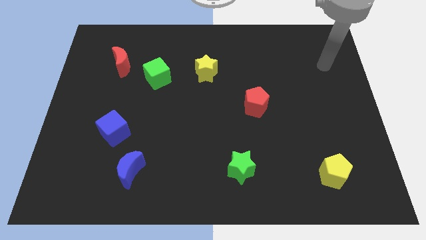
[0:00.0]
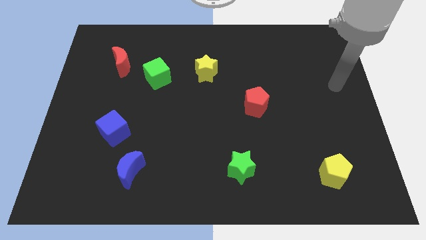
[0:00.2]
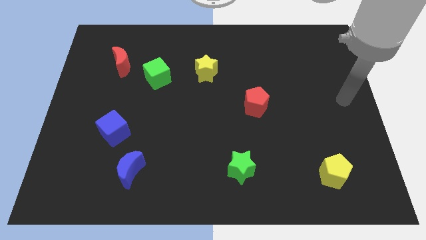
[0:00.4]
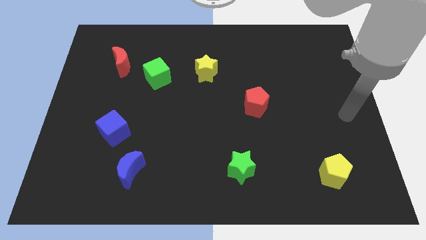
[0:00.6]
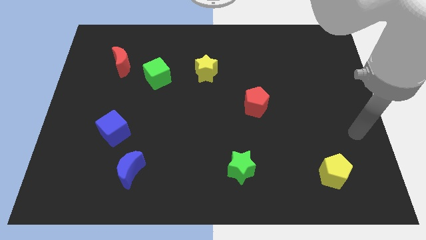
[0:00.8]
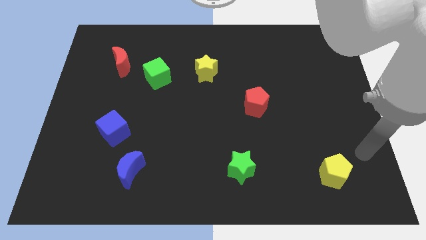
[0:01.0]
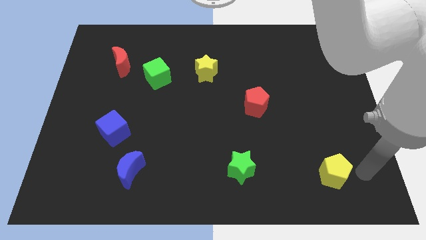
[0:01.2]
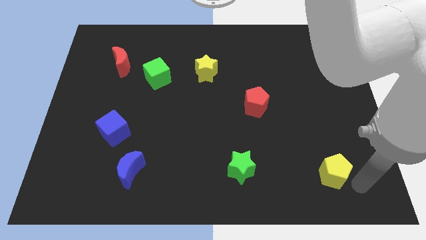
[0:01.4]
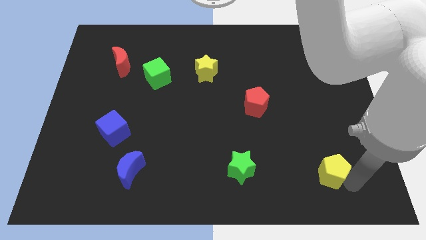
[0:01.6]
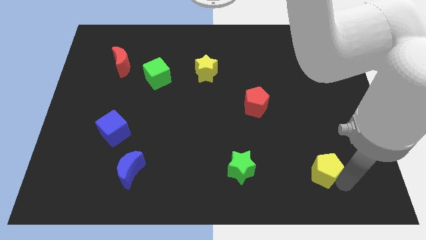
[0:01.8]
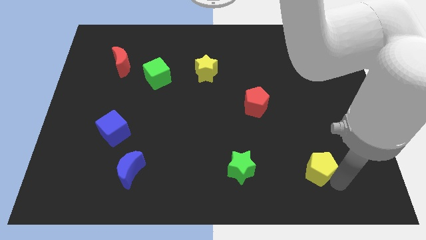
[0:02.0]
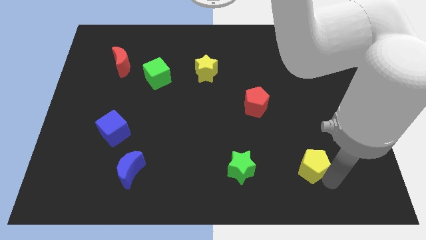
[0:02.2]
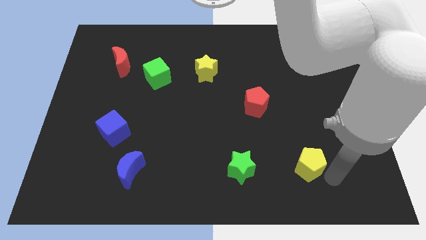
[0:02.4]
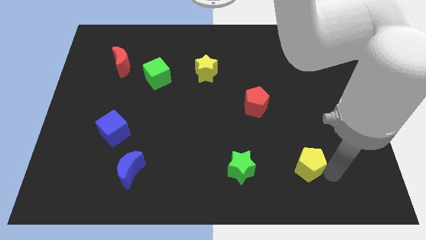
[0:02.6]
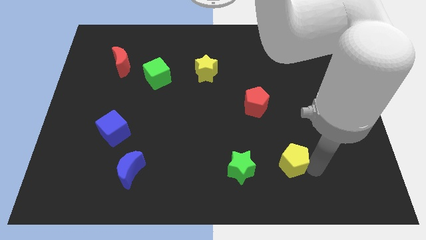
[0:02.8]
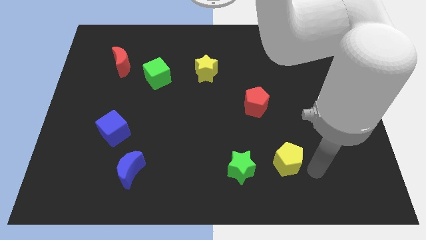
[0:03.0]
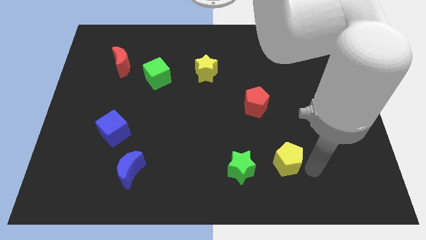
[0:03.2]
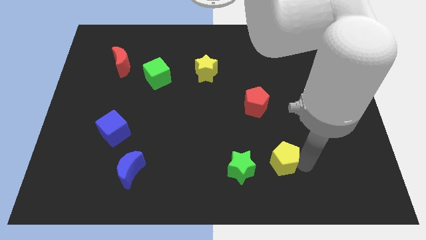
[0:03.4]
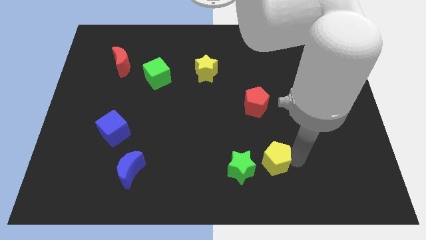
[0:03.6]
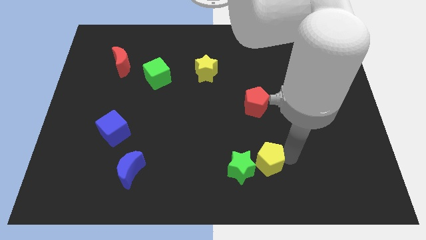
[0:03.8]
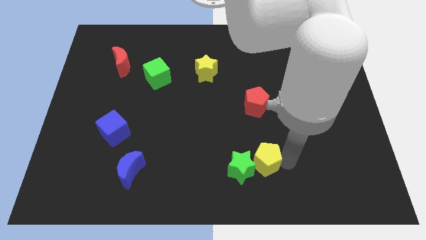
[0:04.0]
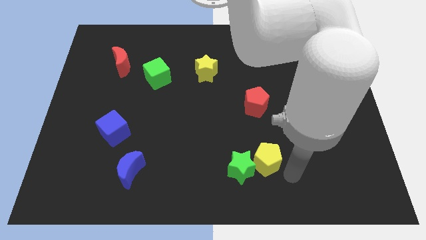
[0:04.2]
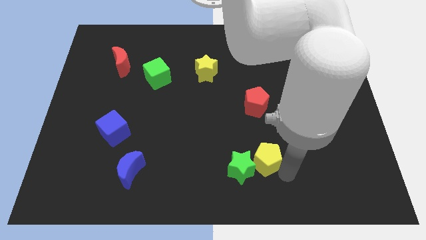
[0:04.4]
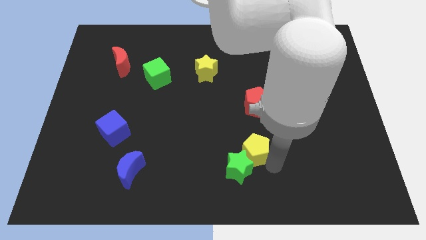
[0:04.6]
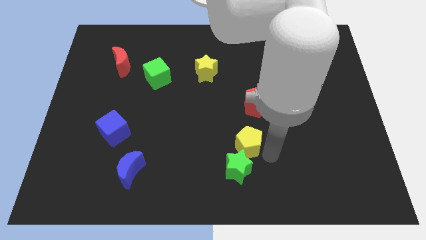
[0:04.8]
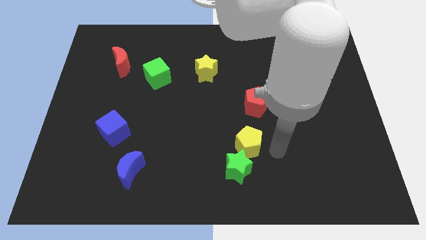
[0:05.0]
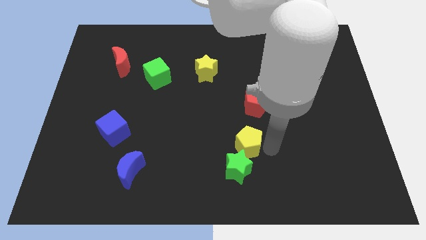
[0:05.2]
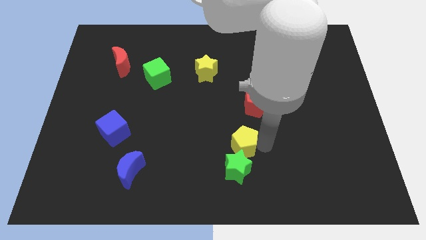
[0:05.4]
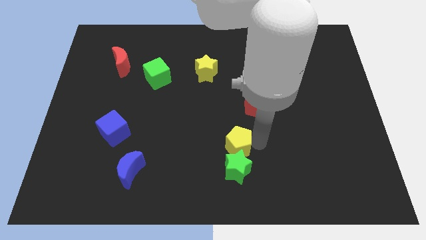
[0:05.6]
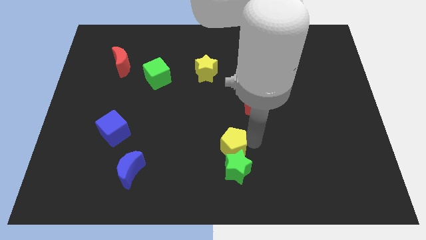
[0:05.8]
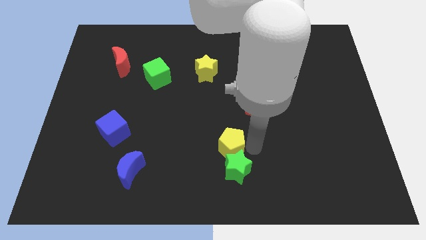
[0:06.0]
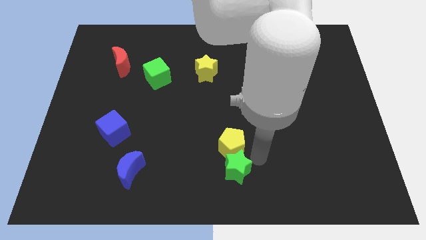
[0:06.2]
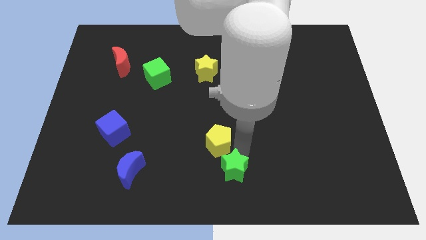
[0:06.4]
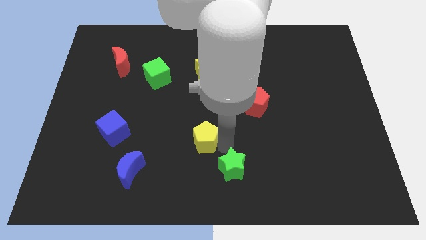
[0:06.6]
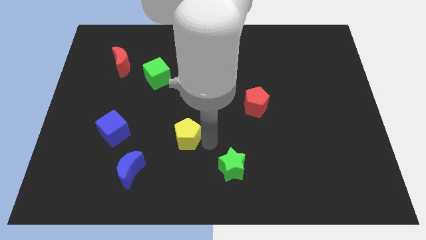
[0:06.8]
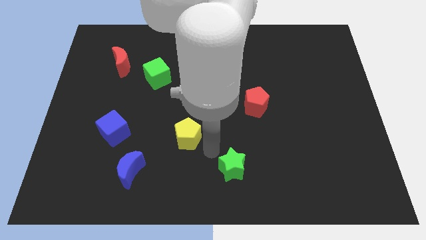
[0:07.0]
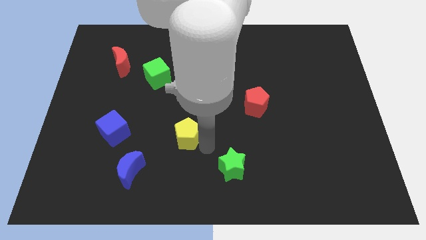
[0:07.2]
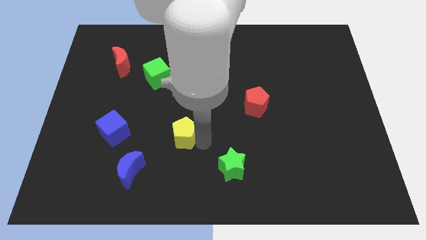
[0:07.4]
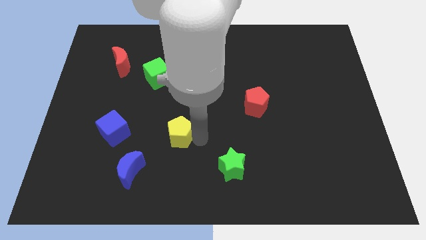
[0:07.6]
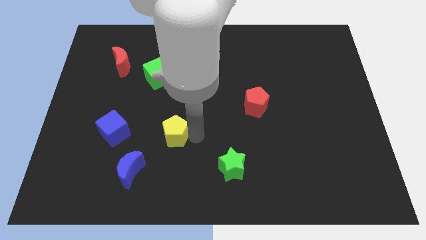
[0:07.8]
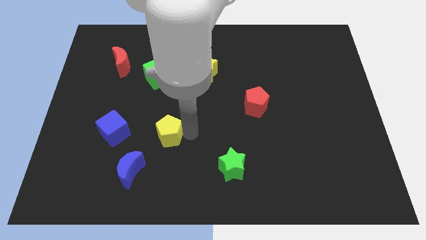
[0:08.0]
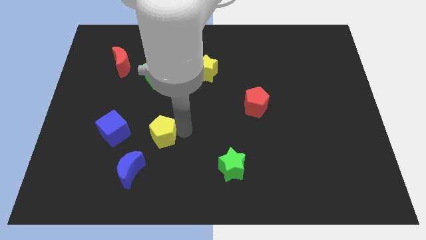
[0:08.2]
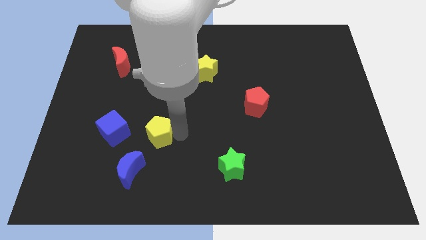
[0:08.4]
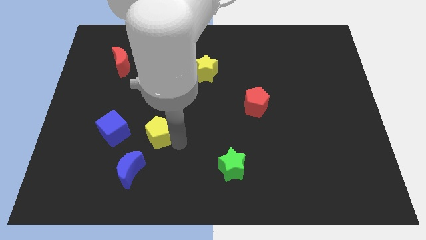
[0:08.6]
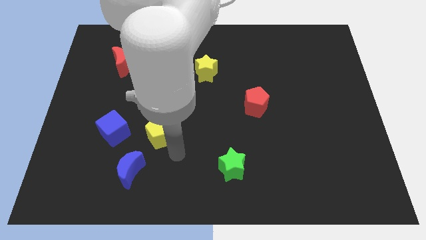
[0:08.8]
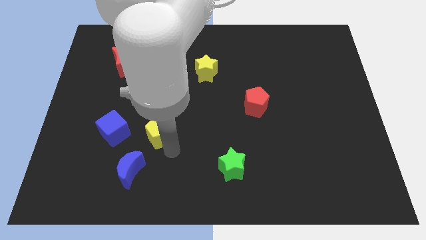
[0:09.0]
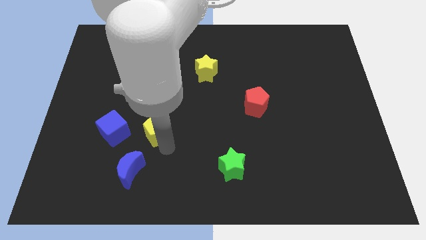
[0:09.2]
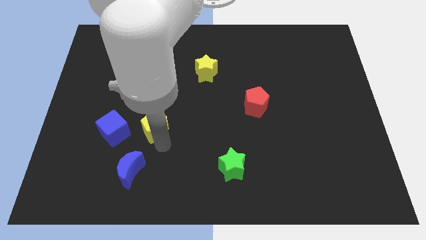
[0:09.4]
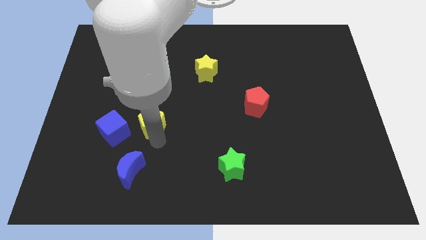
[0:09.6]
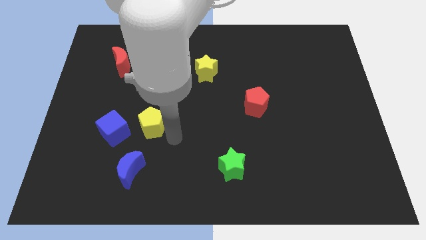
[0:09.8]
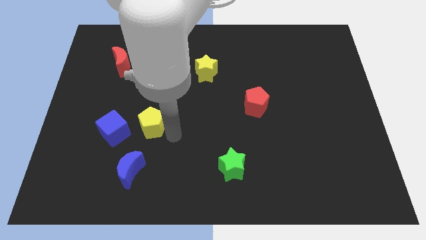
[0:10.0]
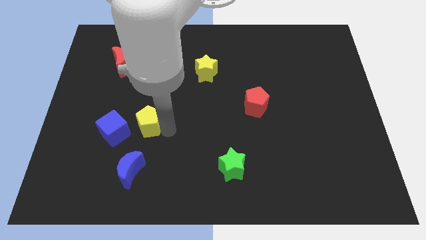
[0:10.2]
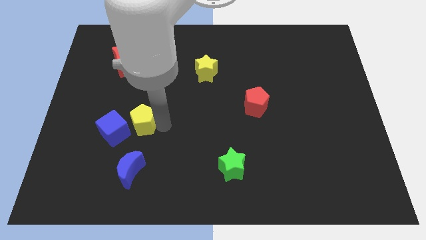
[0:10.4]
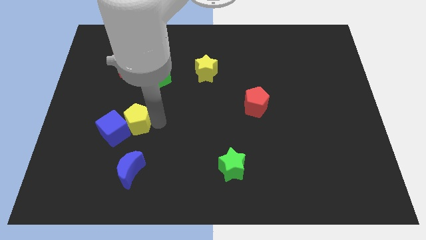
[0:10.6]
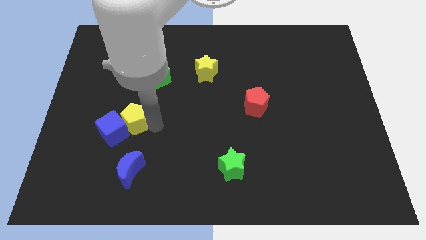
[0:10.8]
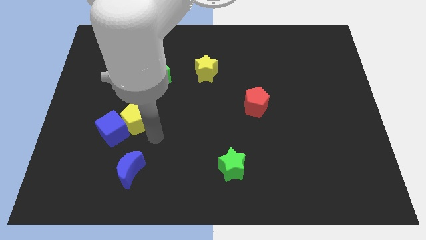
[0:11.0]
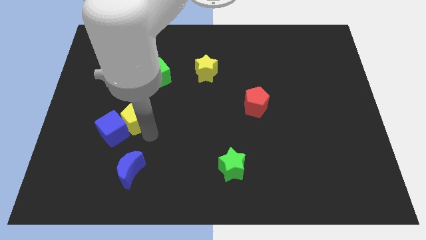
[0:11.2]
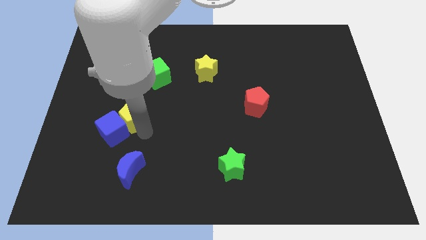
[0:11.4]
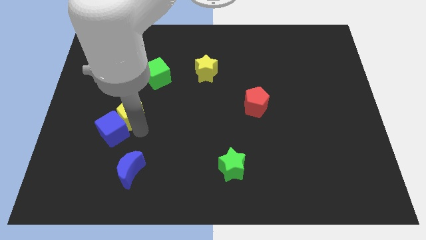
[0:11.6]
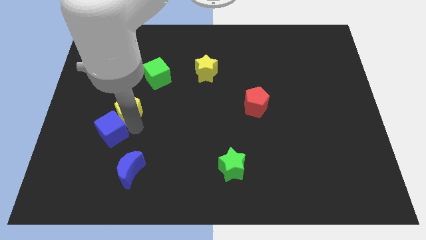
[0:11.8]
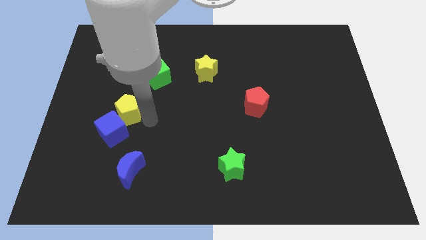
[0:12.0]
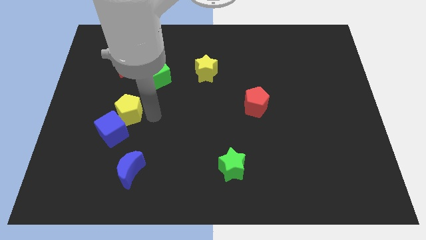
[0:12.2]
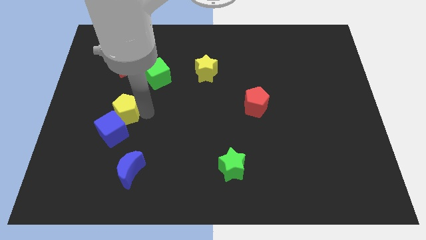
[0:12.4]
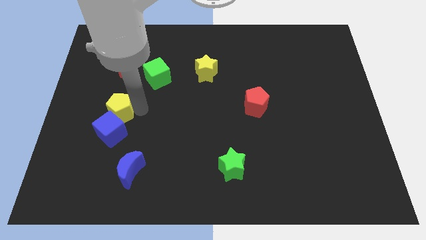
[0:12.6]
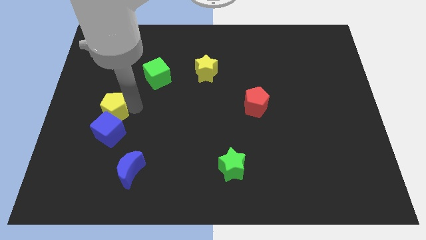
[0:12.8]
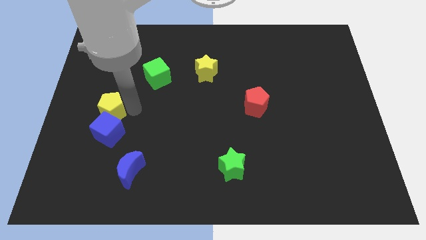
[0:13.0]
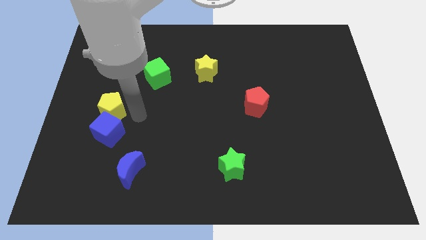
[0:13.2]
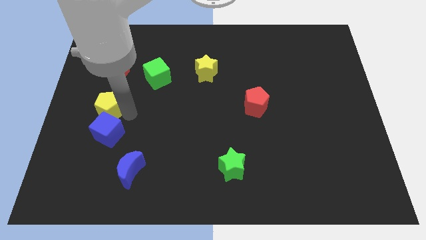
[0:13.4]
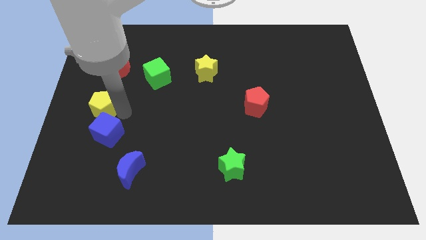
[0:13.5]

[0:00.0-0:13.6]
slide the yellow pentagon to the center left
